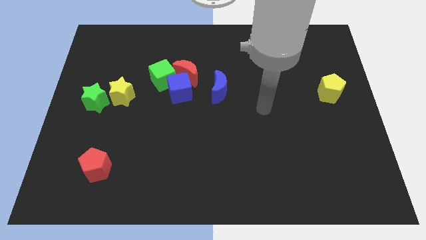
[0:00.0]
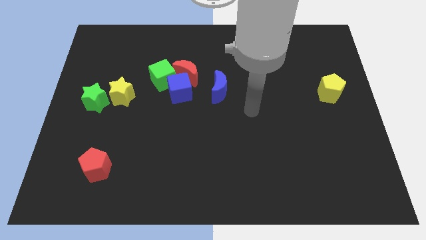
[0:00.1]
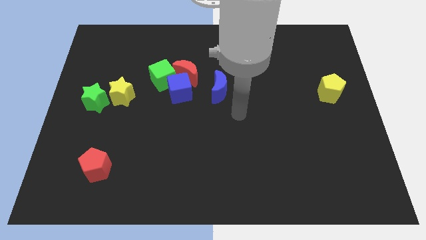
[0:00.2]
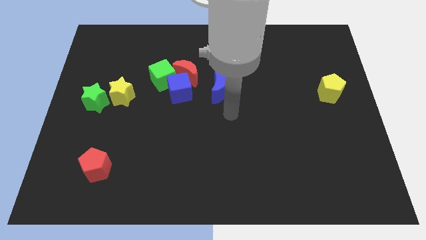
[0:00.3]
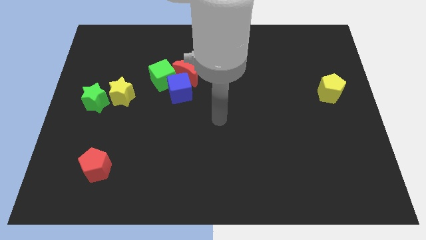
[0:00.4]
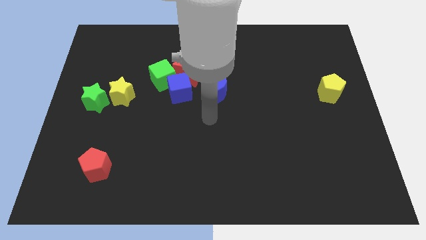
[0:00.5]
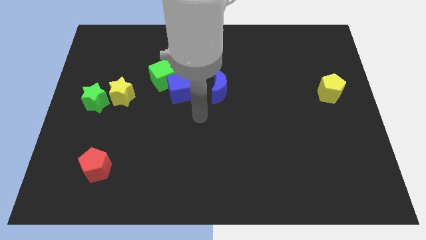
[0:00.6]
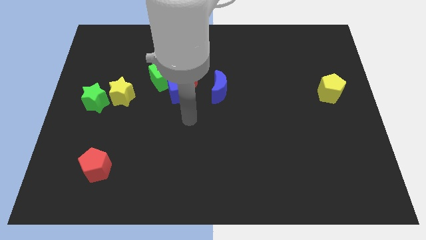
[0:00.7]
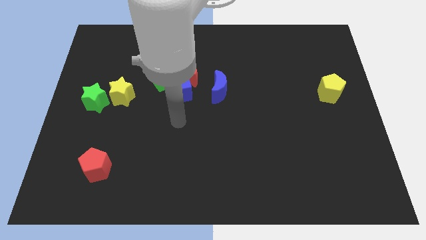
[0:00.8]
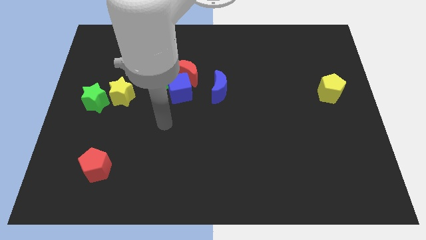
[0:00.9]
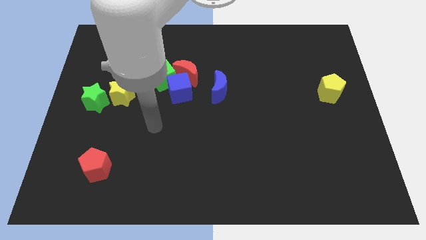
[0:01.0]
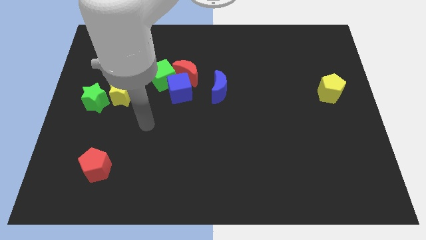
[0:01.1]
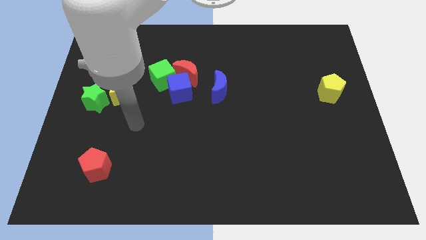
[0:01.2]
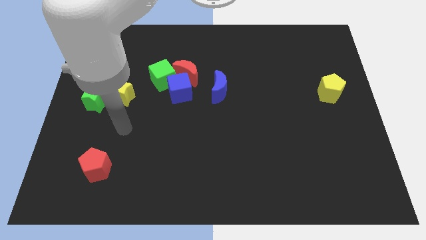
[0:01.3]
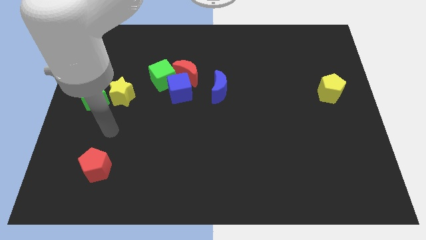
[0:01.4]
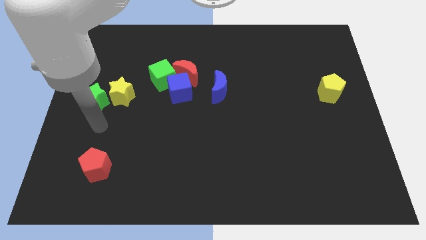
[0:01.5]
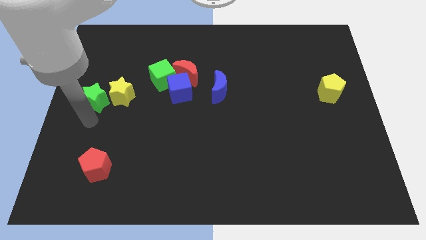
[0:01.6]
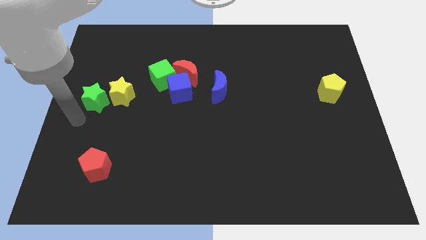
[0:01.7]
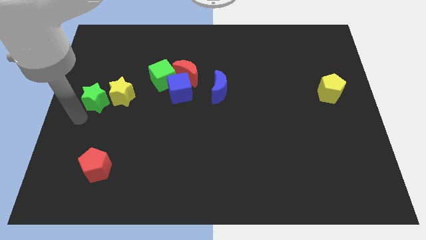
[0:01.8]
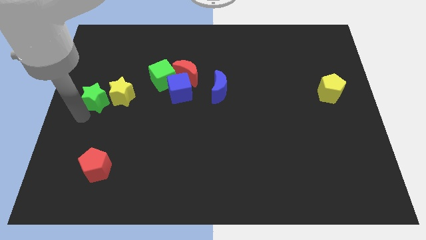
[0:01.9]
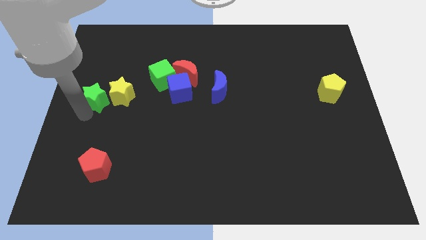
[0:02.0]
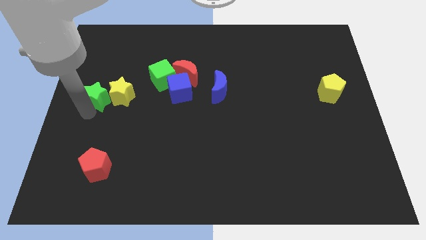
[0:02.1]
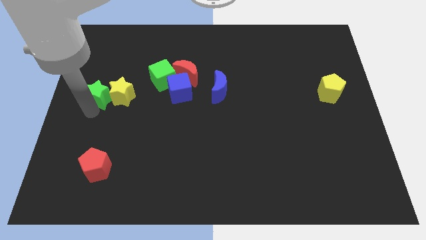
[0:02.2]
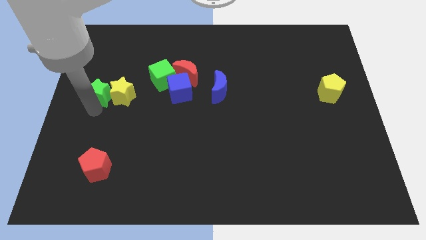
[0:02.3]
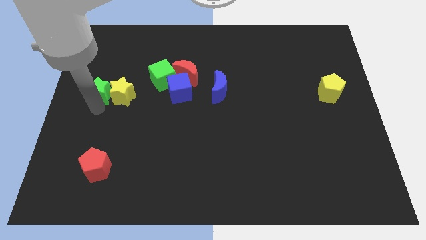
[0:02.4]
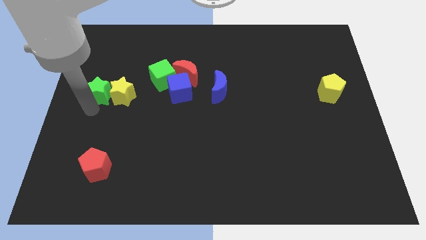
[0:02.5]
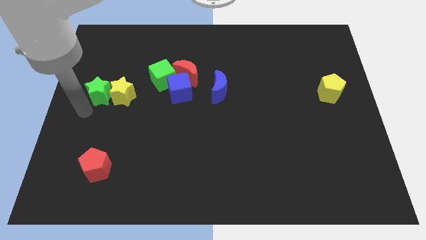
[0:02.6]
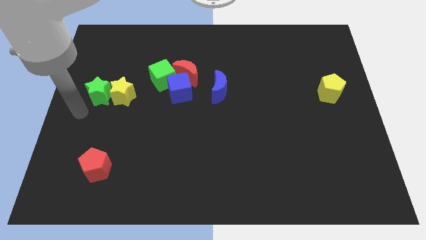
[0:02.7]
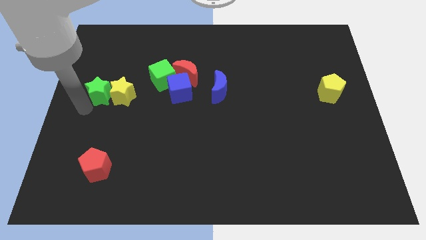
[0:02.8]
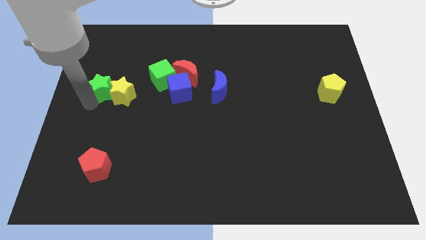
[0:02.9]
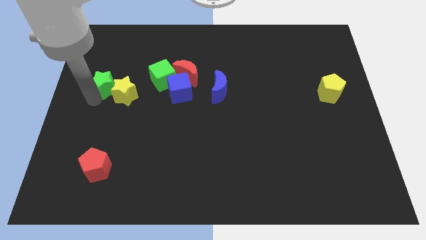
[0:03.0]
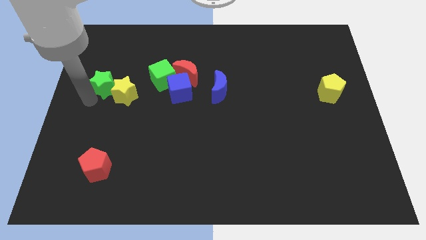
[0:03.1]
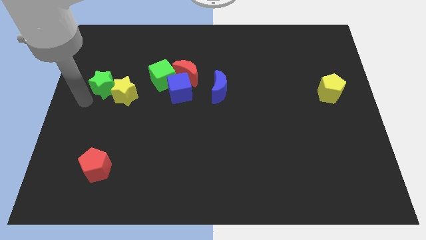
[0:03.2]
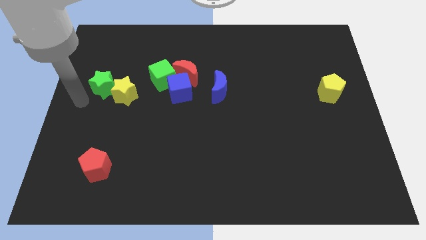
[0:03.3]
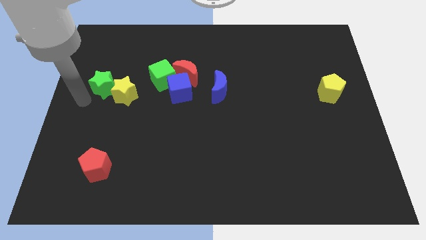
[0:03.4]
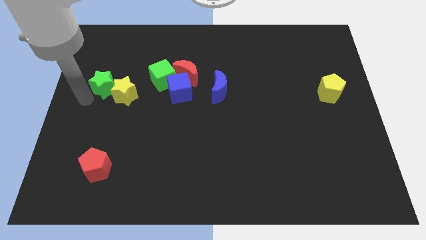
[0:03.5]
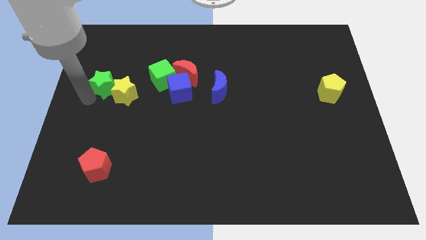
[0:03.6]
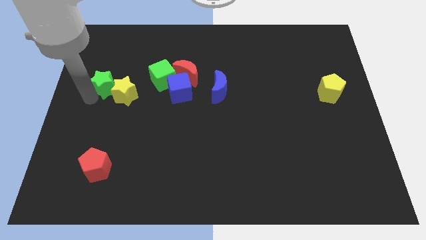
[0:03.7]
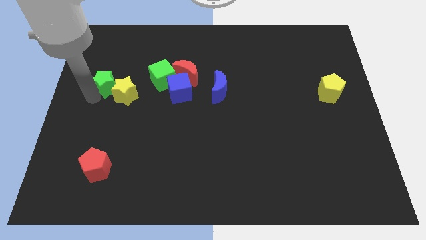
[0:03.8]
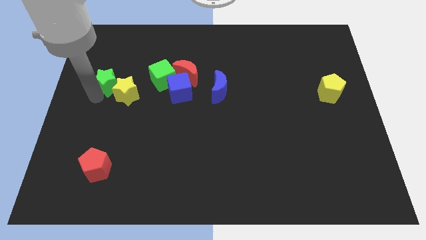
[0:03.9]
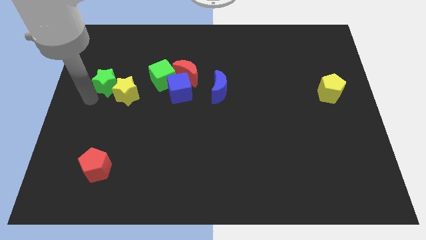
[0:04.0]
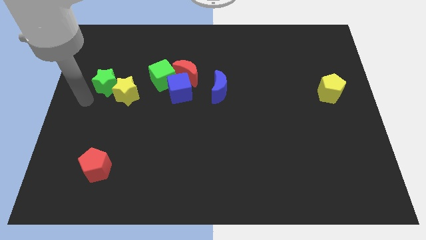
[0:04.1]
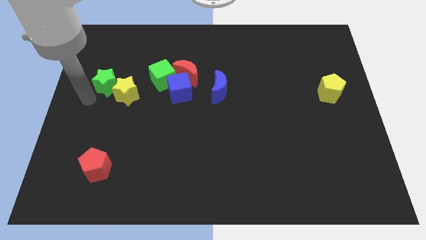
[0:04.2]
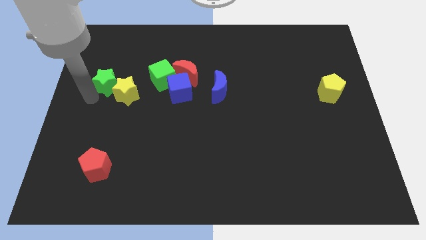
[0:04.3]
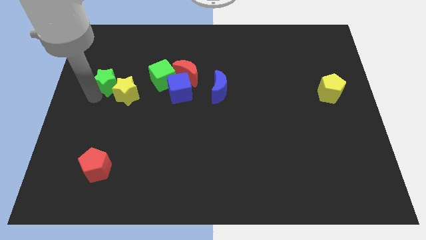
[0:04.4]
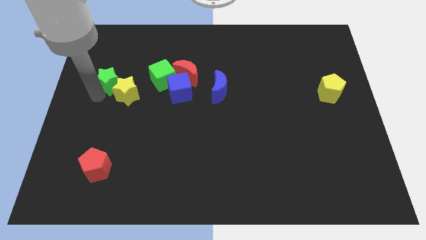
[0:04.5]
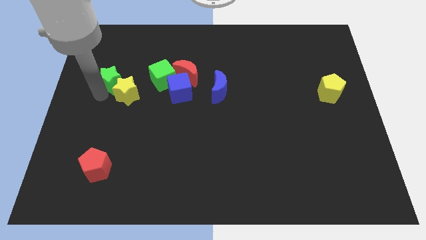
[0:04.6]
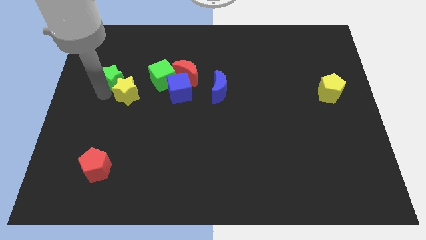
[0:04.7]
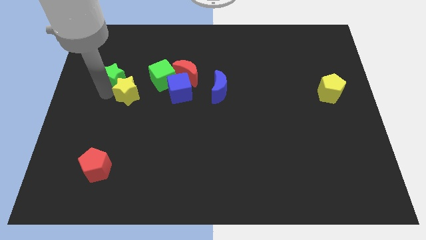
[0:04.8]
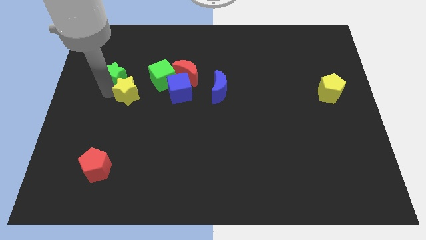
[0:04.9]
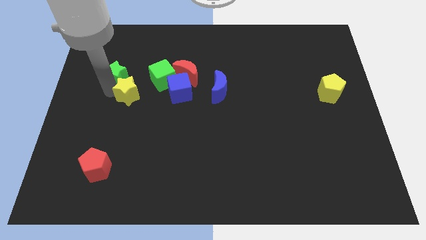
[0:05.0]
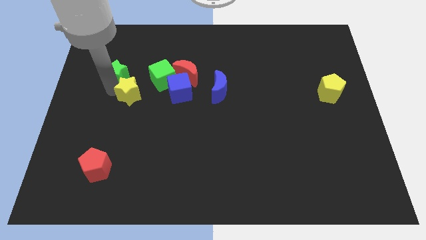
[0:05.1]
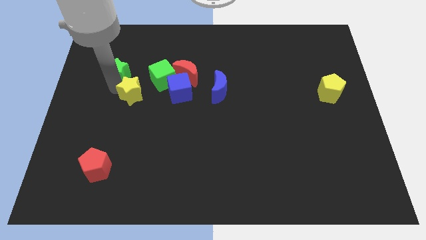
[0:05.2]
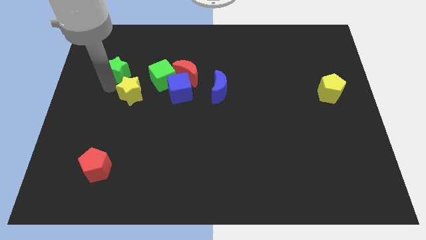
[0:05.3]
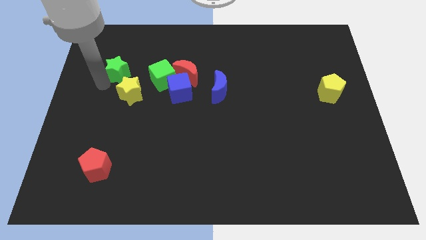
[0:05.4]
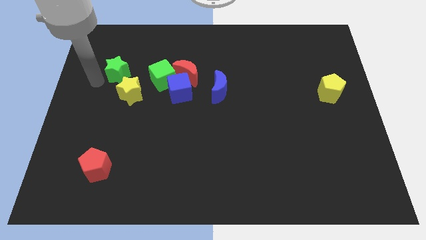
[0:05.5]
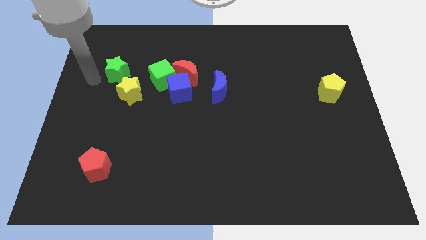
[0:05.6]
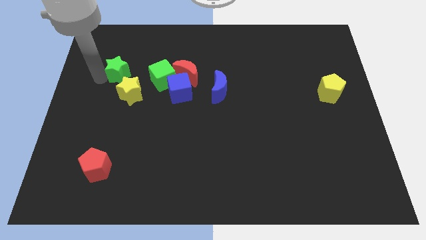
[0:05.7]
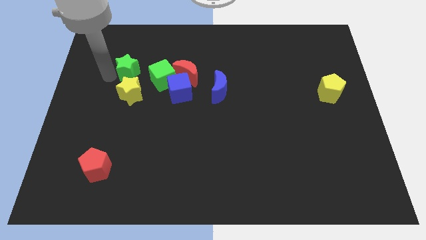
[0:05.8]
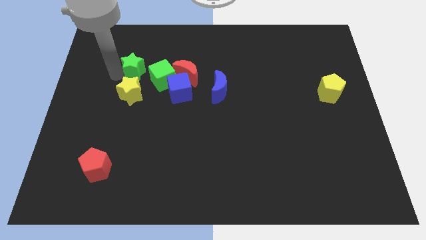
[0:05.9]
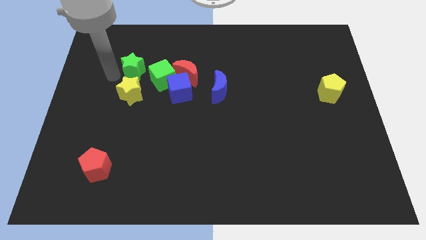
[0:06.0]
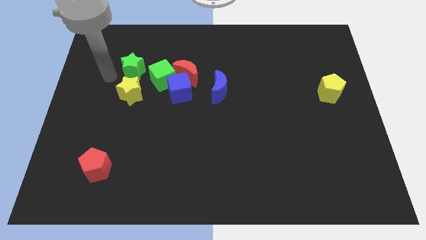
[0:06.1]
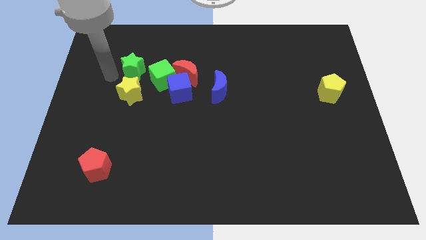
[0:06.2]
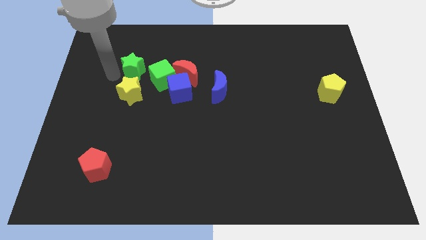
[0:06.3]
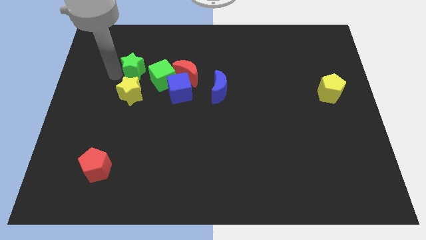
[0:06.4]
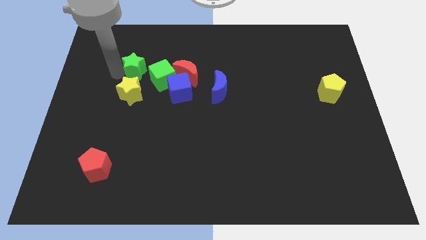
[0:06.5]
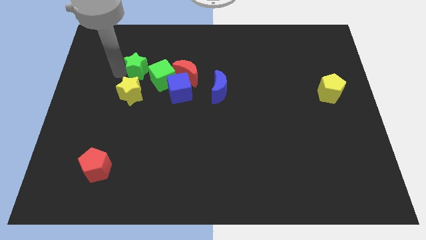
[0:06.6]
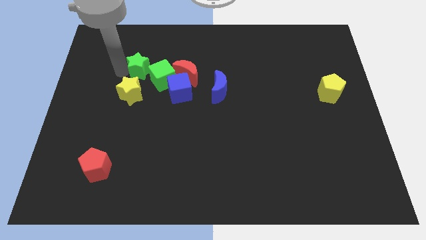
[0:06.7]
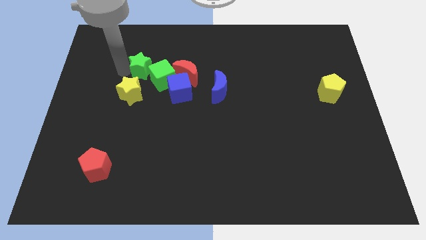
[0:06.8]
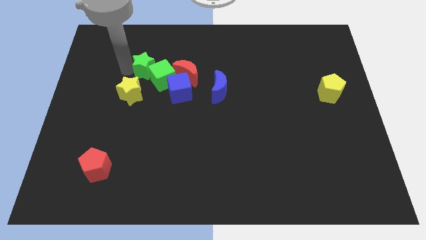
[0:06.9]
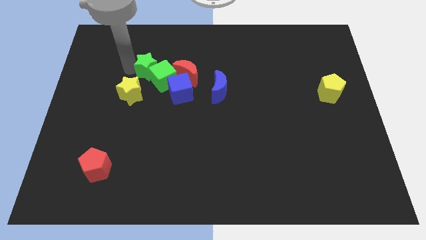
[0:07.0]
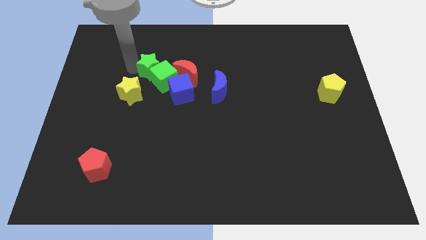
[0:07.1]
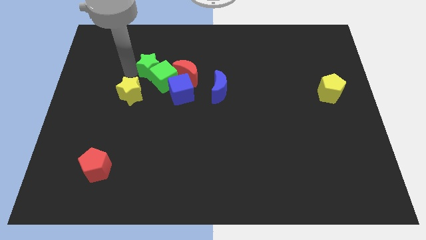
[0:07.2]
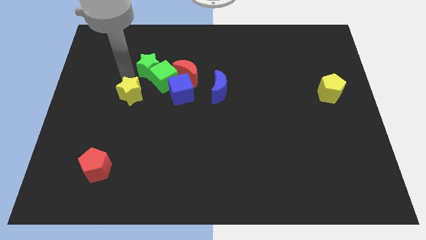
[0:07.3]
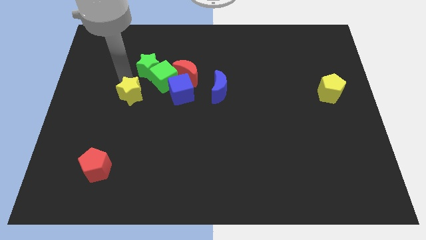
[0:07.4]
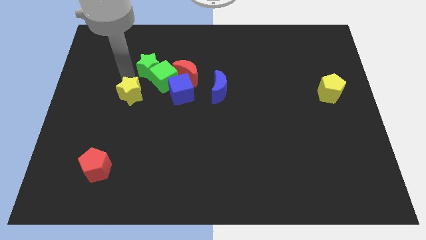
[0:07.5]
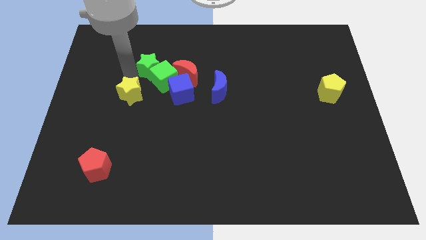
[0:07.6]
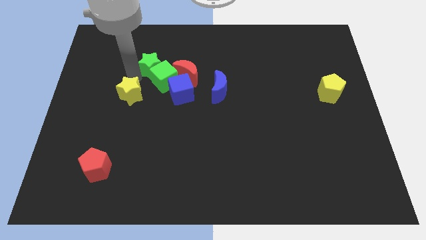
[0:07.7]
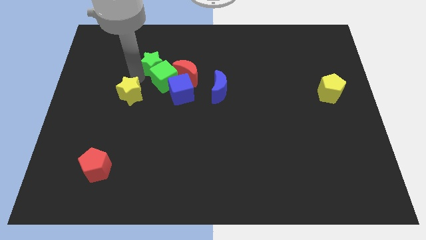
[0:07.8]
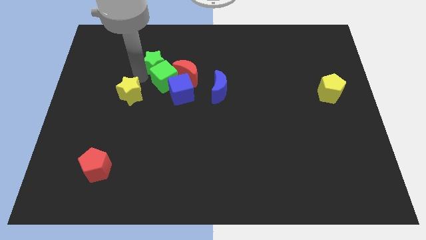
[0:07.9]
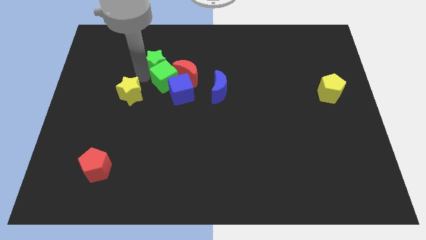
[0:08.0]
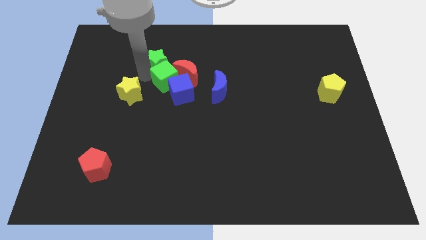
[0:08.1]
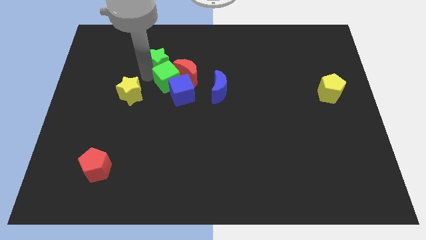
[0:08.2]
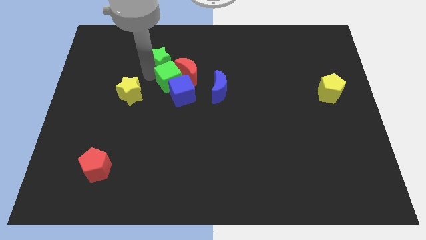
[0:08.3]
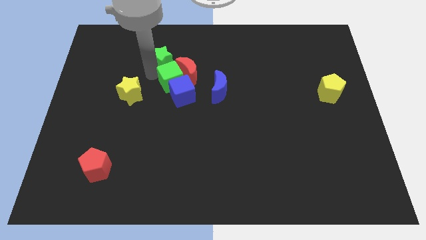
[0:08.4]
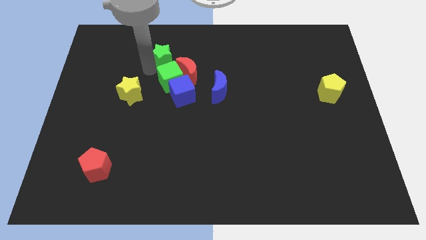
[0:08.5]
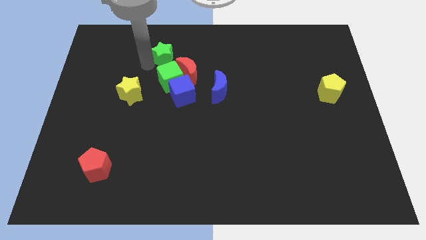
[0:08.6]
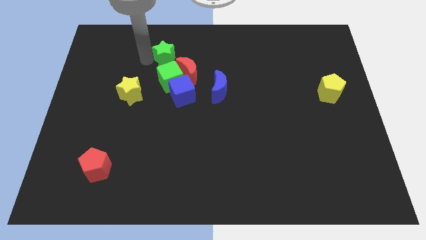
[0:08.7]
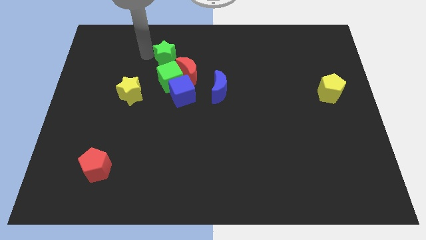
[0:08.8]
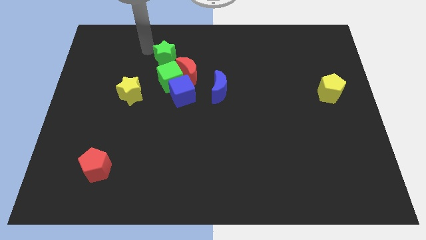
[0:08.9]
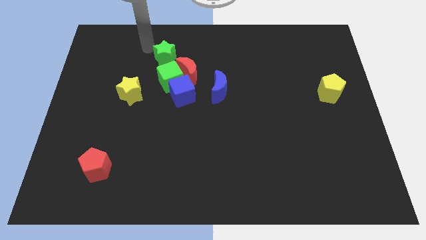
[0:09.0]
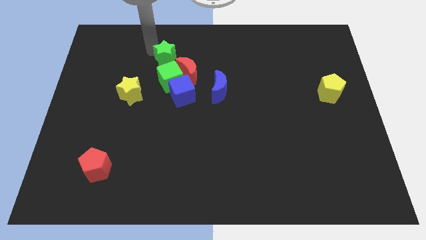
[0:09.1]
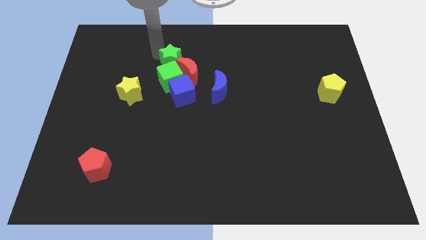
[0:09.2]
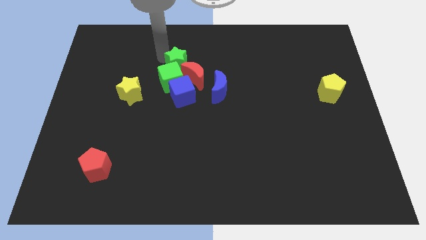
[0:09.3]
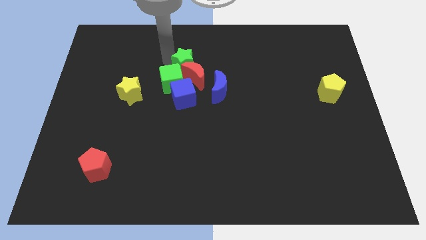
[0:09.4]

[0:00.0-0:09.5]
push the green star close to the red moon
